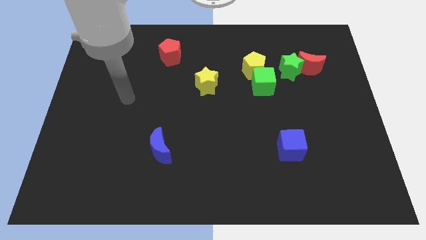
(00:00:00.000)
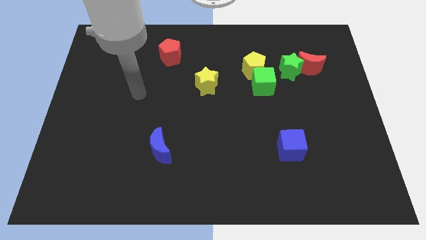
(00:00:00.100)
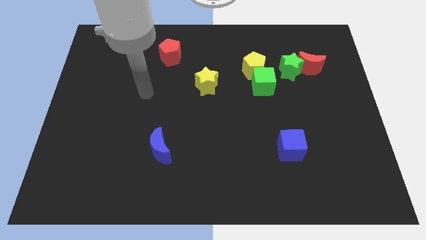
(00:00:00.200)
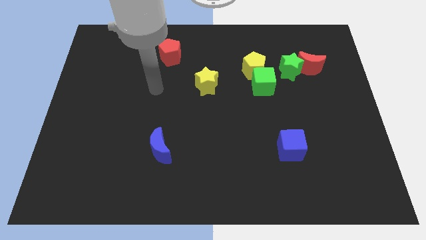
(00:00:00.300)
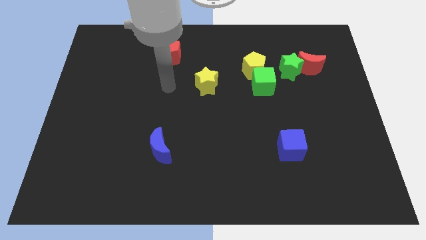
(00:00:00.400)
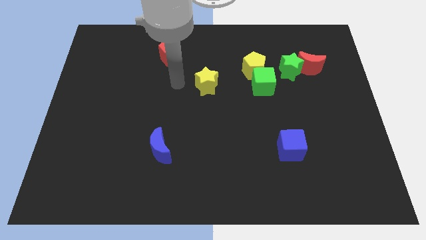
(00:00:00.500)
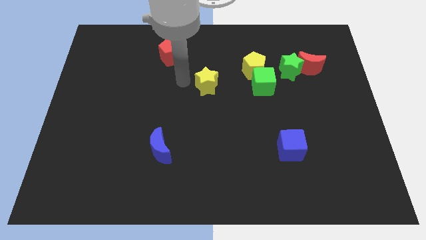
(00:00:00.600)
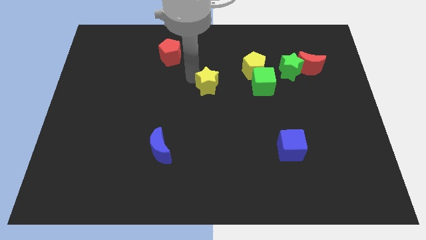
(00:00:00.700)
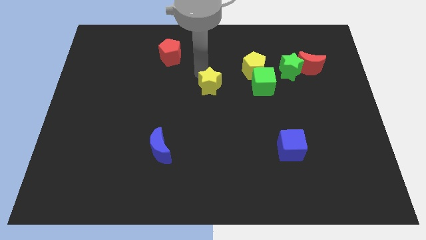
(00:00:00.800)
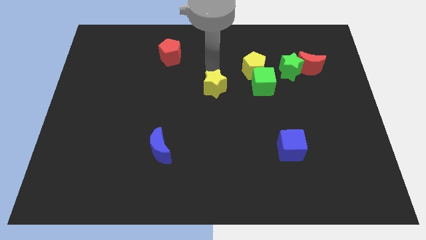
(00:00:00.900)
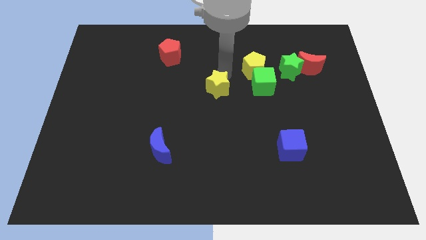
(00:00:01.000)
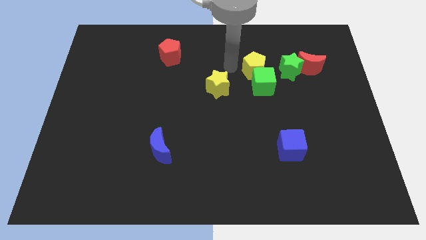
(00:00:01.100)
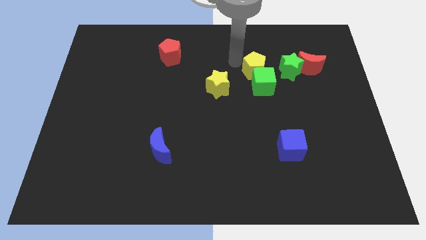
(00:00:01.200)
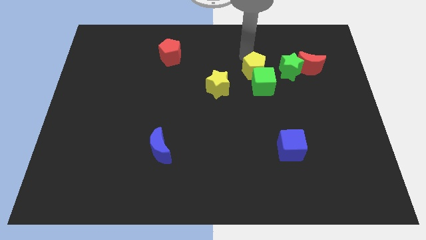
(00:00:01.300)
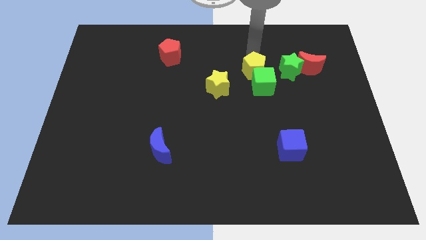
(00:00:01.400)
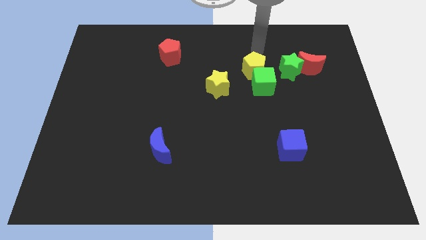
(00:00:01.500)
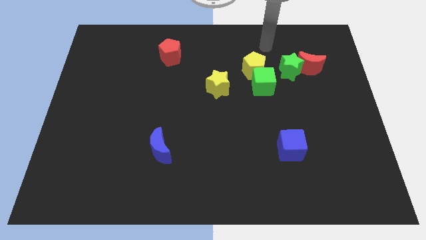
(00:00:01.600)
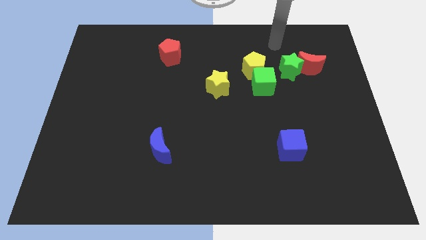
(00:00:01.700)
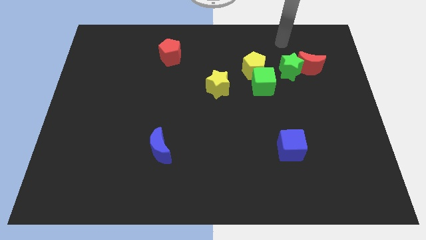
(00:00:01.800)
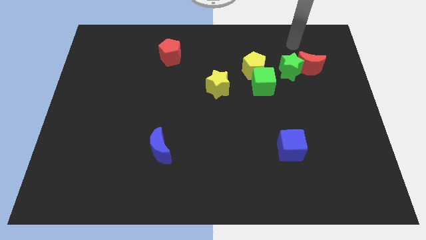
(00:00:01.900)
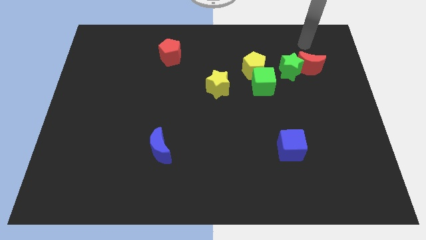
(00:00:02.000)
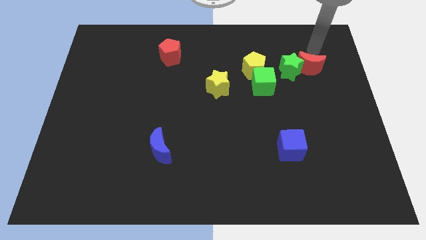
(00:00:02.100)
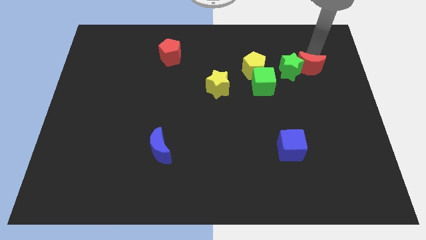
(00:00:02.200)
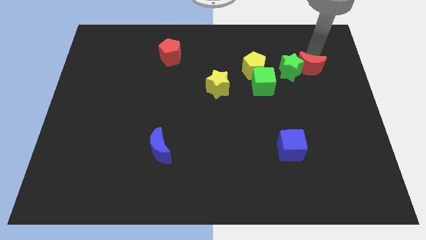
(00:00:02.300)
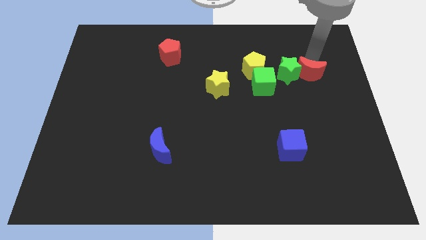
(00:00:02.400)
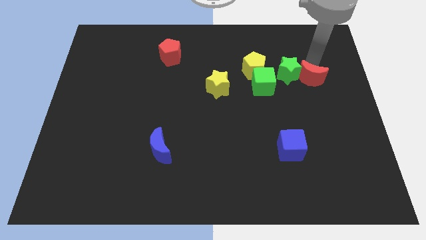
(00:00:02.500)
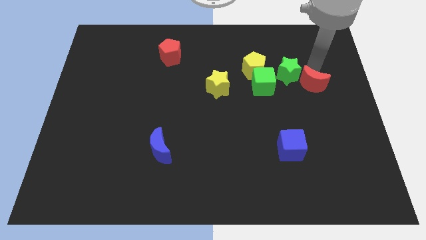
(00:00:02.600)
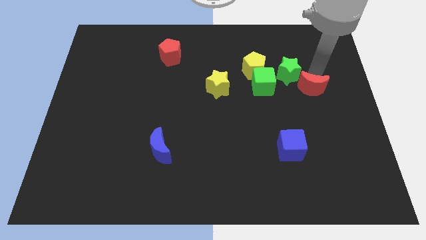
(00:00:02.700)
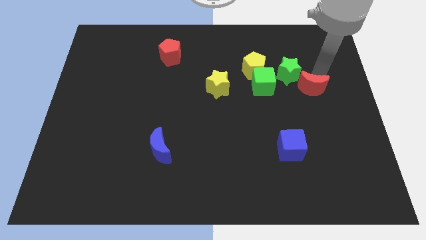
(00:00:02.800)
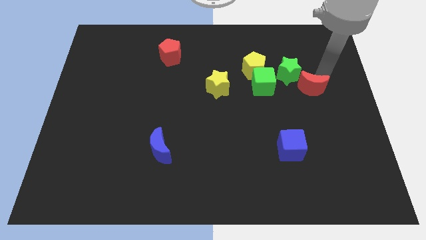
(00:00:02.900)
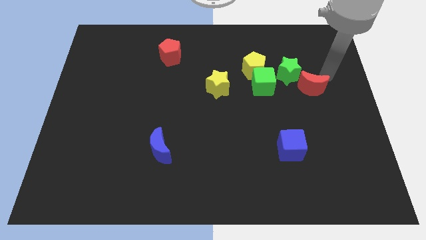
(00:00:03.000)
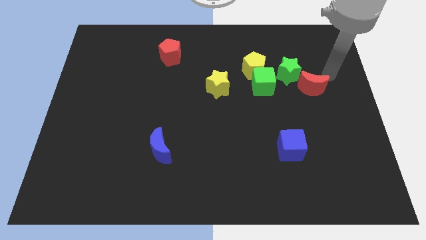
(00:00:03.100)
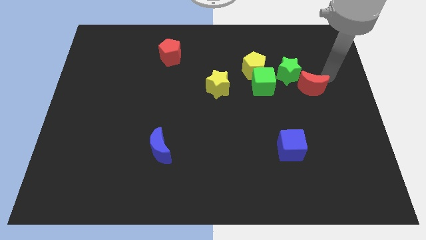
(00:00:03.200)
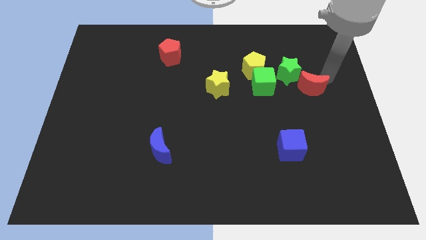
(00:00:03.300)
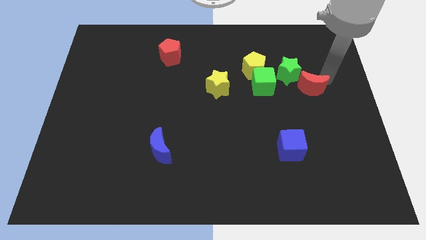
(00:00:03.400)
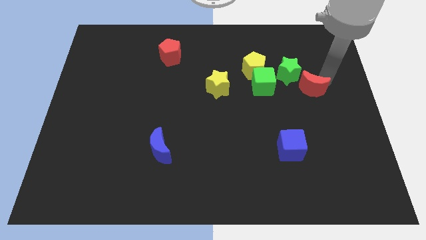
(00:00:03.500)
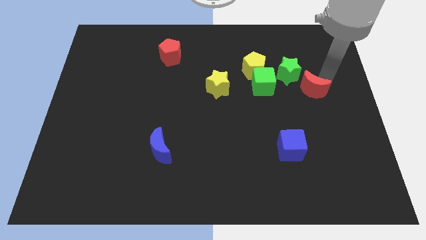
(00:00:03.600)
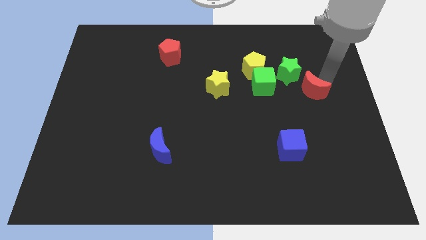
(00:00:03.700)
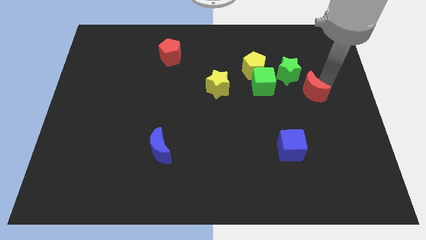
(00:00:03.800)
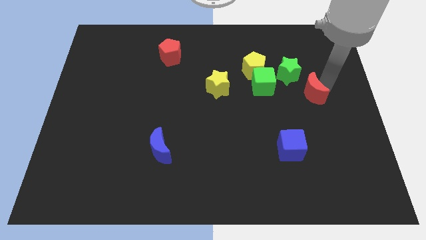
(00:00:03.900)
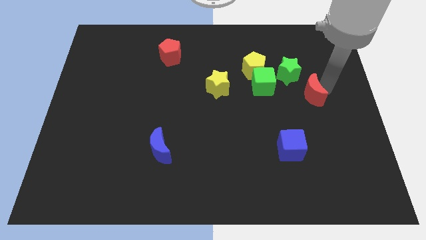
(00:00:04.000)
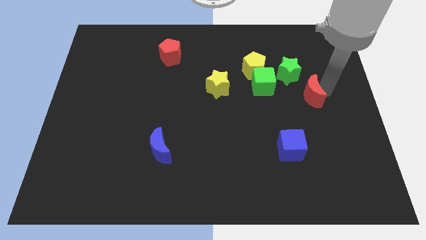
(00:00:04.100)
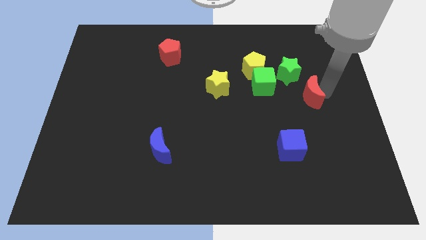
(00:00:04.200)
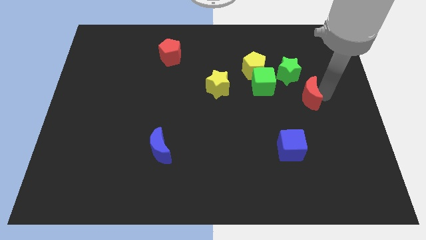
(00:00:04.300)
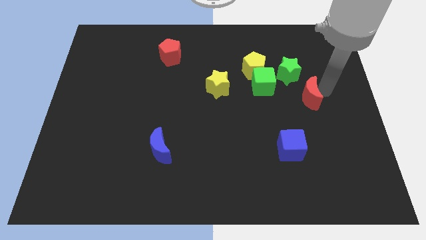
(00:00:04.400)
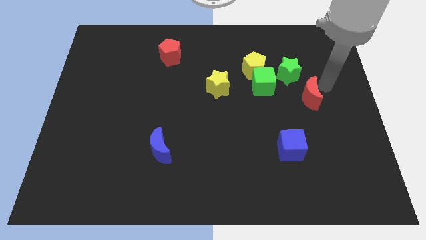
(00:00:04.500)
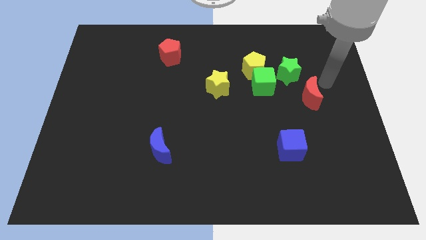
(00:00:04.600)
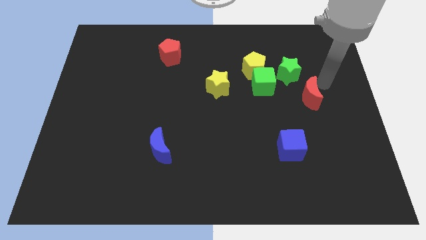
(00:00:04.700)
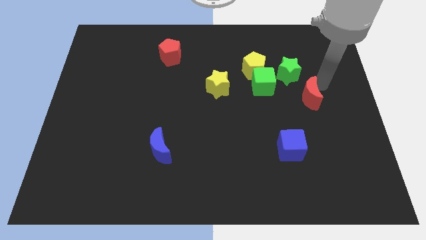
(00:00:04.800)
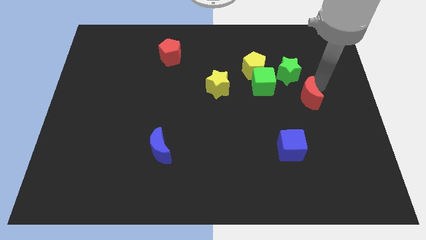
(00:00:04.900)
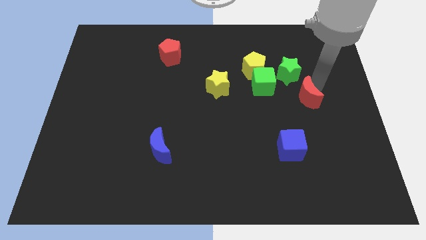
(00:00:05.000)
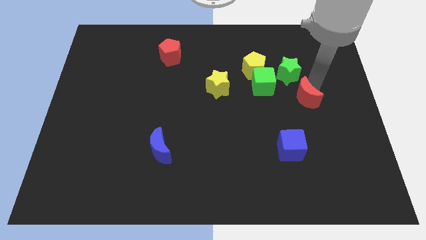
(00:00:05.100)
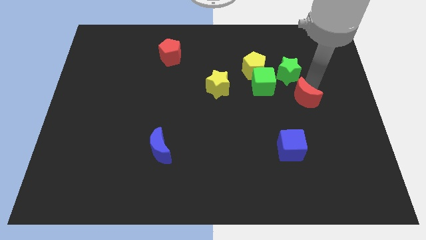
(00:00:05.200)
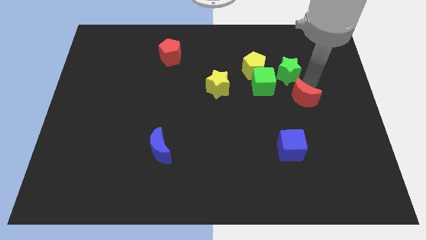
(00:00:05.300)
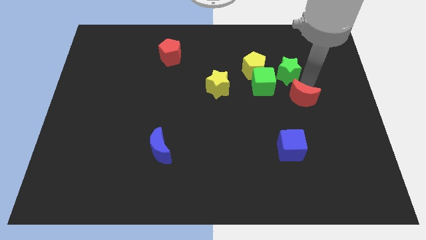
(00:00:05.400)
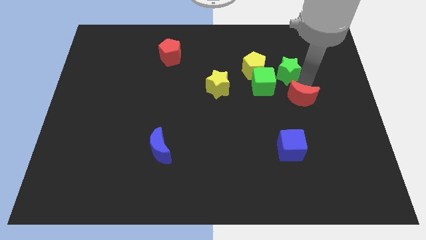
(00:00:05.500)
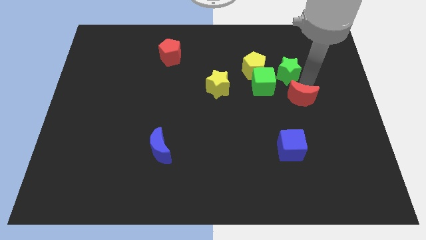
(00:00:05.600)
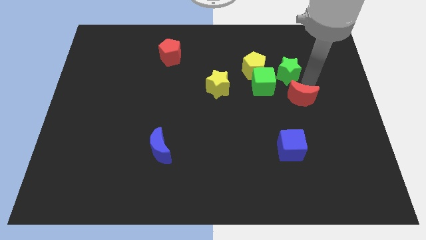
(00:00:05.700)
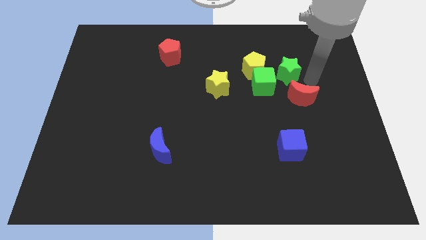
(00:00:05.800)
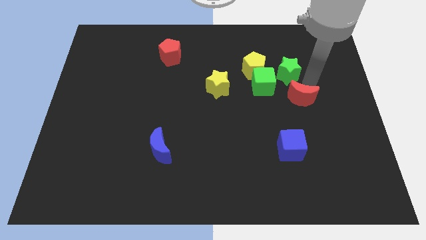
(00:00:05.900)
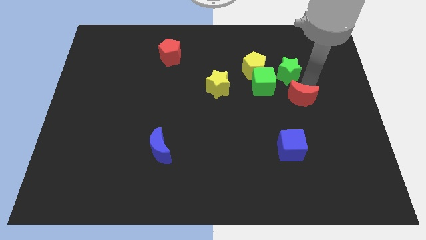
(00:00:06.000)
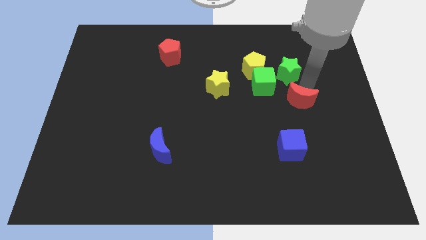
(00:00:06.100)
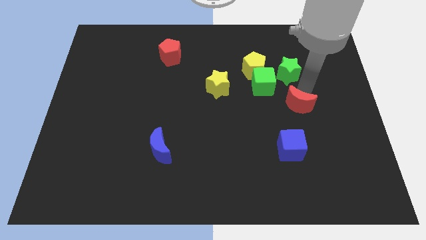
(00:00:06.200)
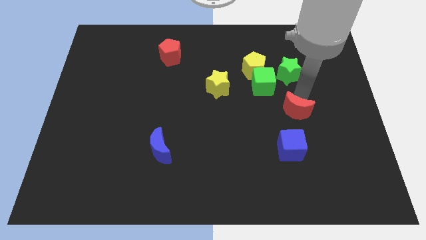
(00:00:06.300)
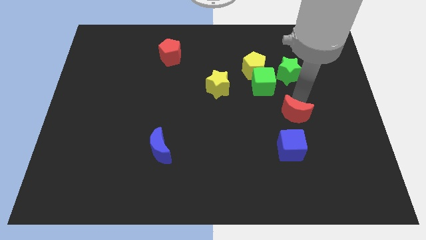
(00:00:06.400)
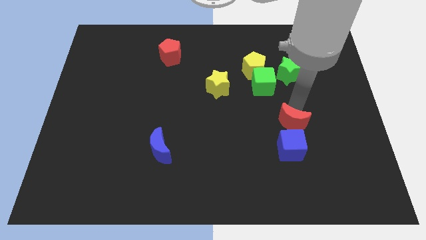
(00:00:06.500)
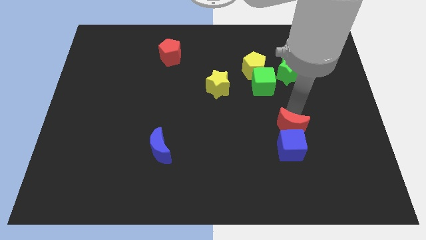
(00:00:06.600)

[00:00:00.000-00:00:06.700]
put the red moon next to the blue cube

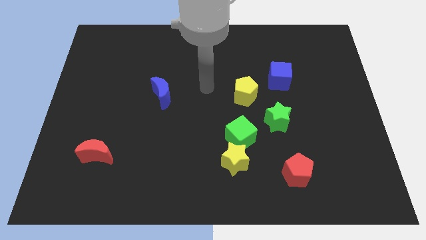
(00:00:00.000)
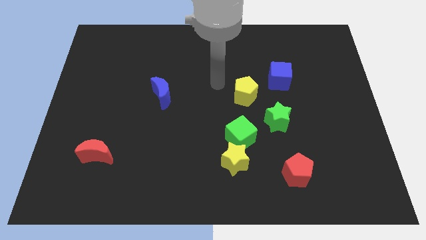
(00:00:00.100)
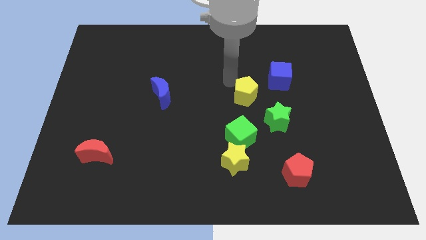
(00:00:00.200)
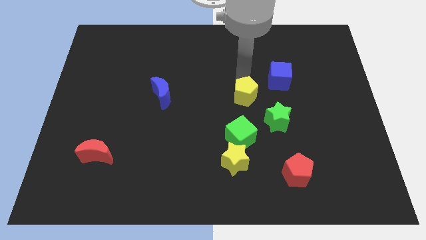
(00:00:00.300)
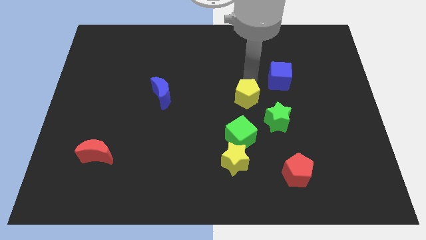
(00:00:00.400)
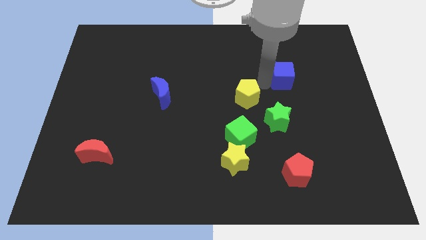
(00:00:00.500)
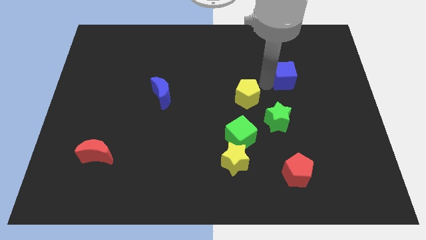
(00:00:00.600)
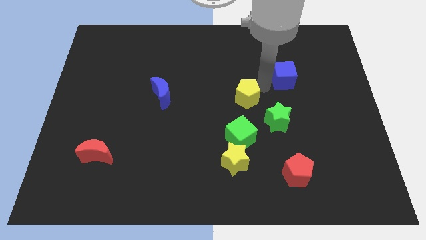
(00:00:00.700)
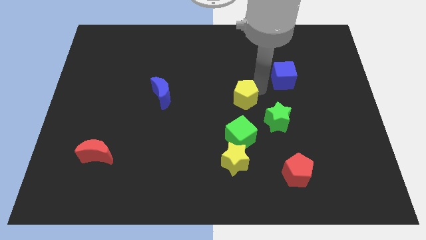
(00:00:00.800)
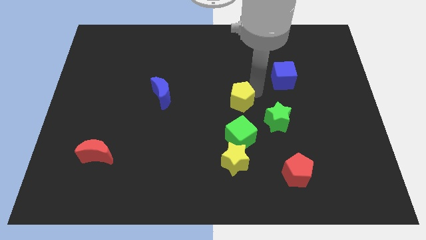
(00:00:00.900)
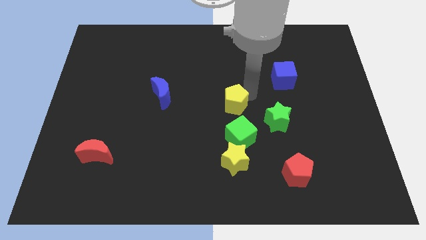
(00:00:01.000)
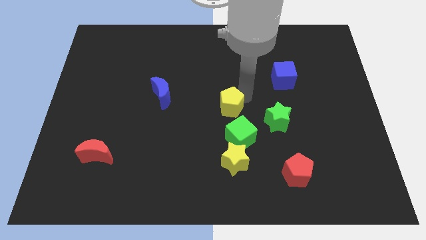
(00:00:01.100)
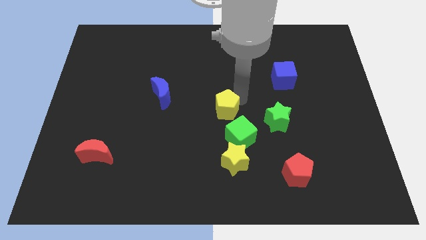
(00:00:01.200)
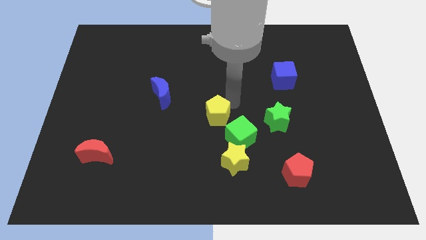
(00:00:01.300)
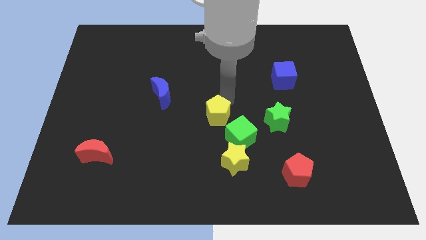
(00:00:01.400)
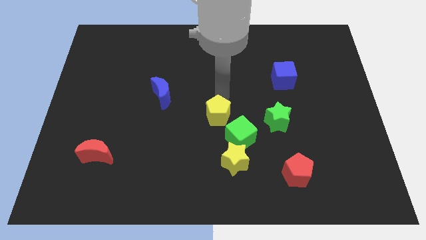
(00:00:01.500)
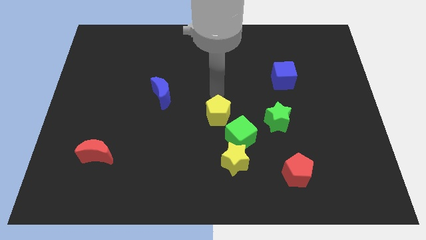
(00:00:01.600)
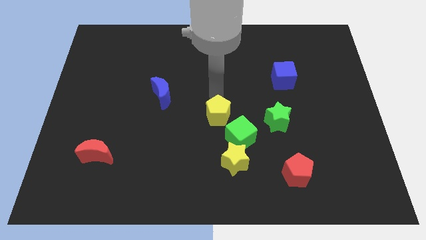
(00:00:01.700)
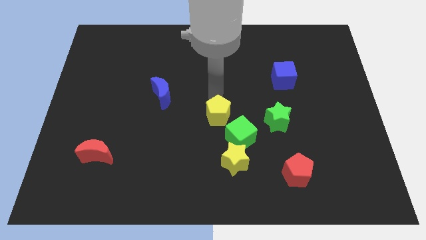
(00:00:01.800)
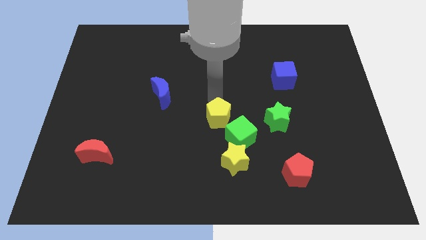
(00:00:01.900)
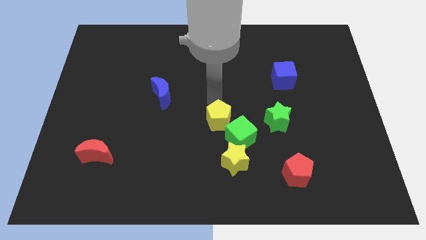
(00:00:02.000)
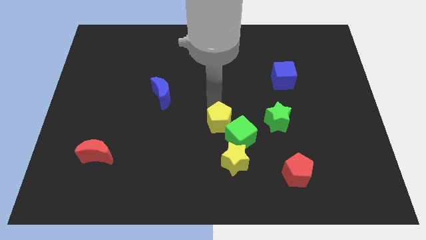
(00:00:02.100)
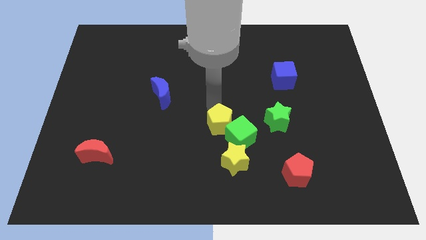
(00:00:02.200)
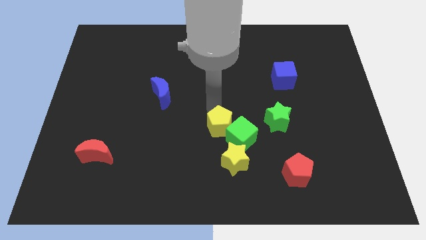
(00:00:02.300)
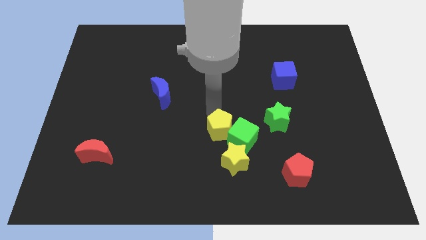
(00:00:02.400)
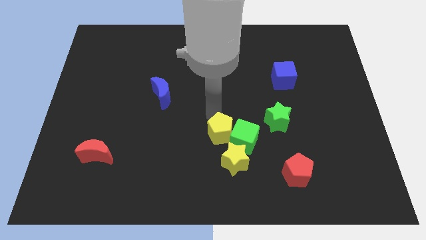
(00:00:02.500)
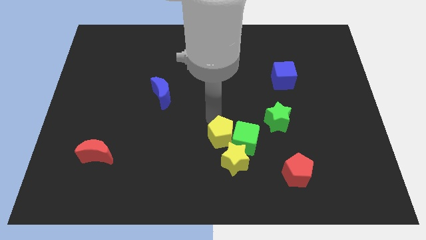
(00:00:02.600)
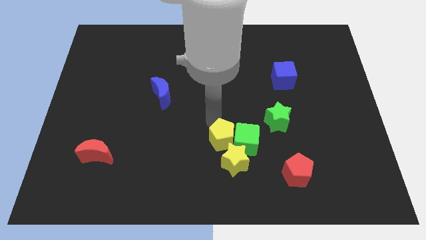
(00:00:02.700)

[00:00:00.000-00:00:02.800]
slide the yellow pentagon next to the yellow star
